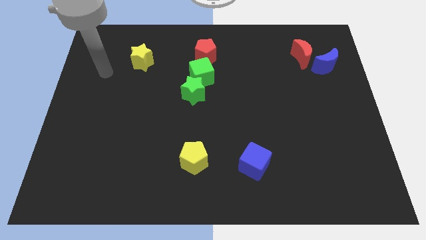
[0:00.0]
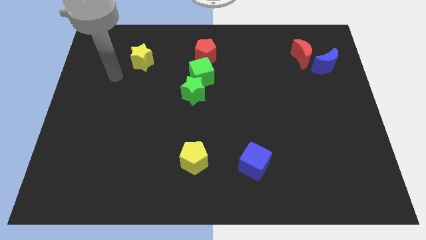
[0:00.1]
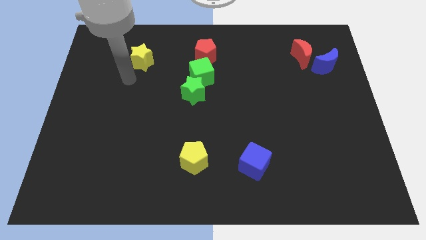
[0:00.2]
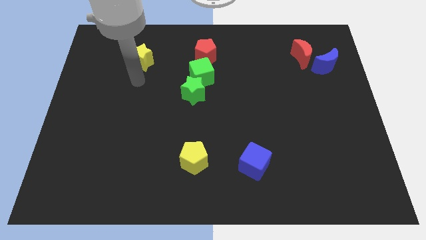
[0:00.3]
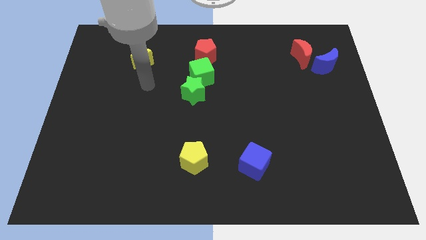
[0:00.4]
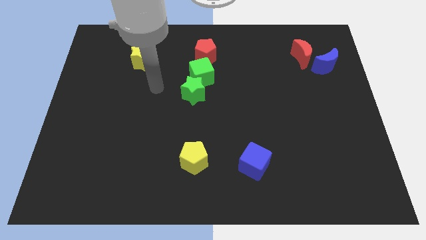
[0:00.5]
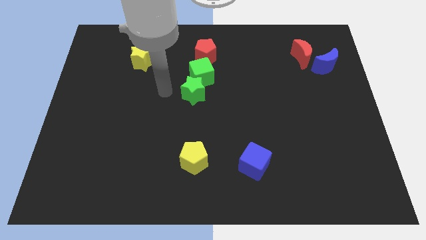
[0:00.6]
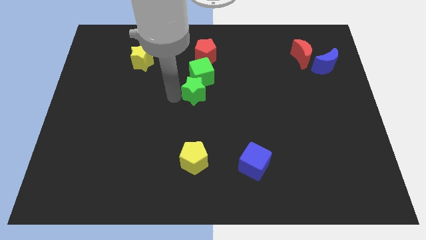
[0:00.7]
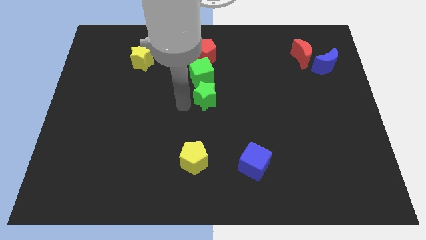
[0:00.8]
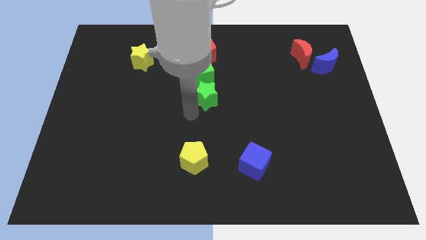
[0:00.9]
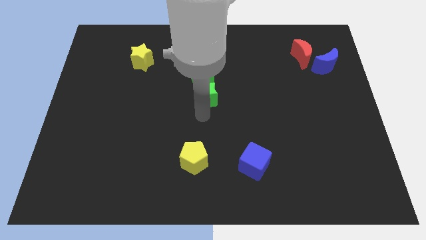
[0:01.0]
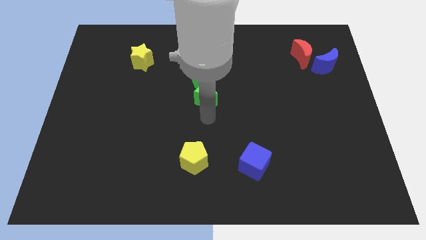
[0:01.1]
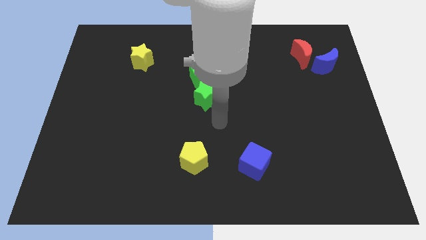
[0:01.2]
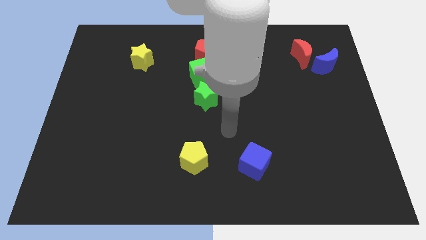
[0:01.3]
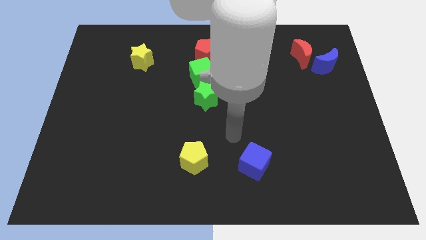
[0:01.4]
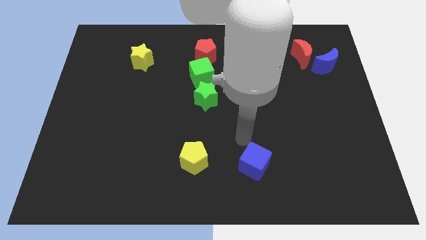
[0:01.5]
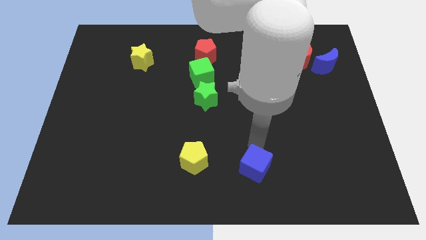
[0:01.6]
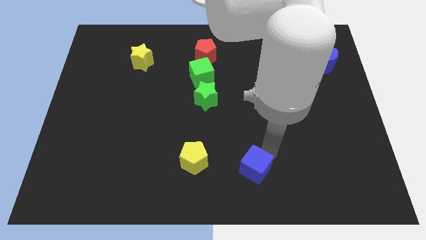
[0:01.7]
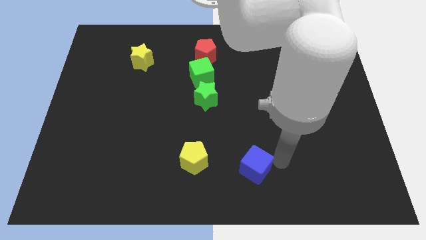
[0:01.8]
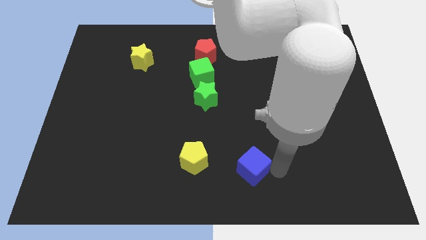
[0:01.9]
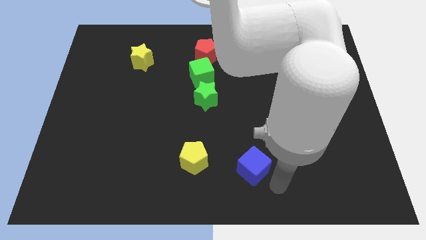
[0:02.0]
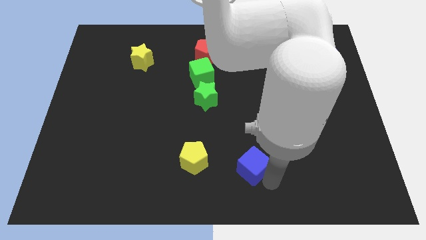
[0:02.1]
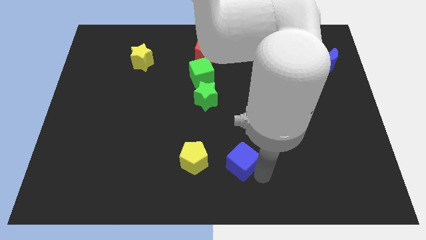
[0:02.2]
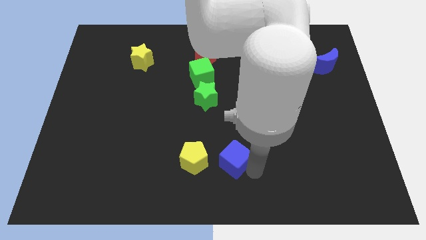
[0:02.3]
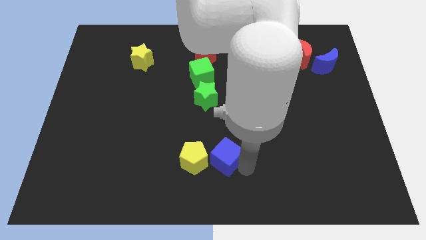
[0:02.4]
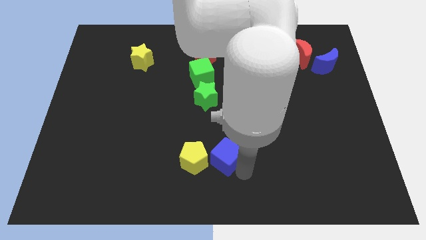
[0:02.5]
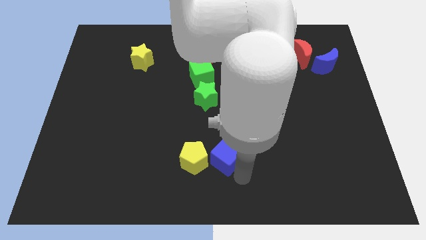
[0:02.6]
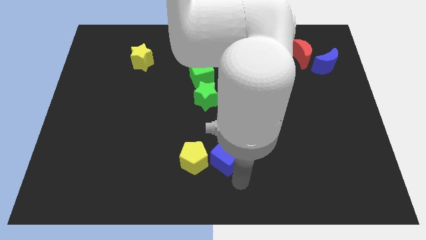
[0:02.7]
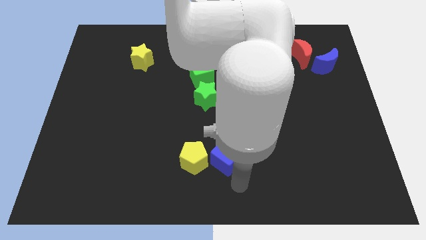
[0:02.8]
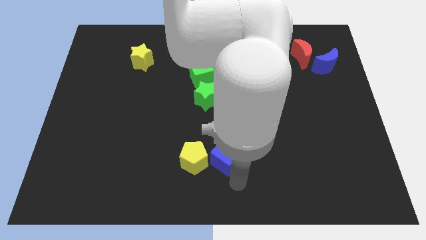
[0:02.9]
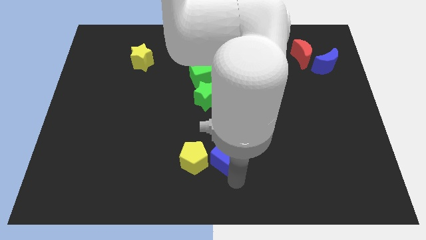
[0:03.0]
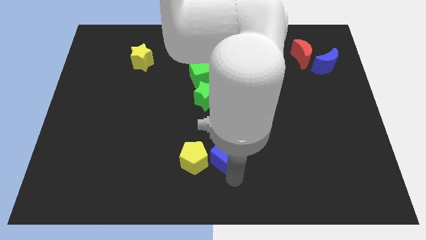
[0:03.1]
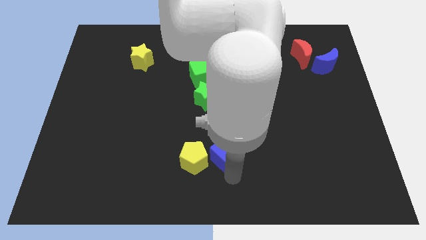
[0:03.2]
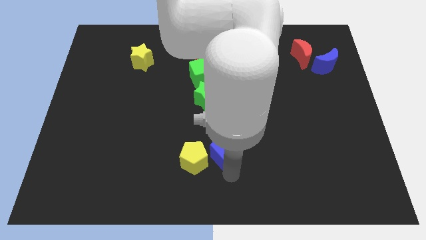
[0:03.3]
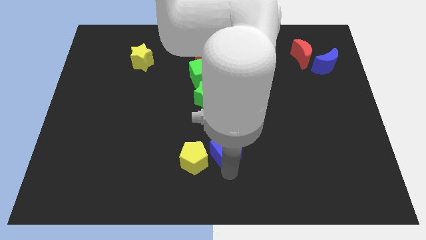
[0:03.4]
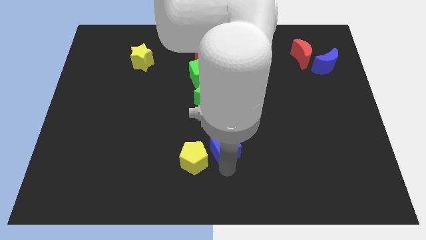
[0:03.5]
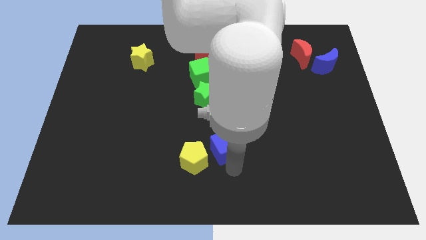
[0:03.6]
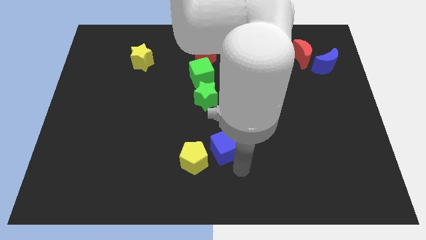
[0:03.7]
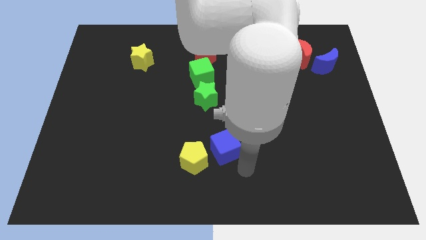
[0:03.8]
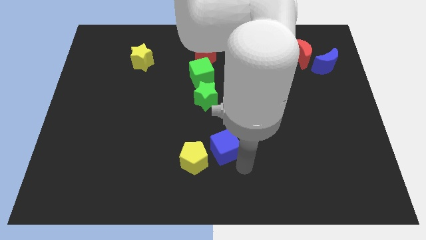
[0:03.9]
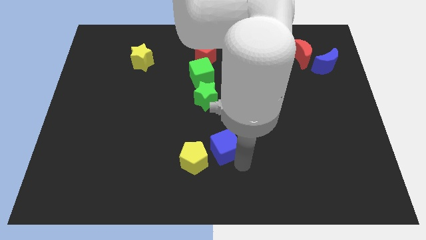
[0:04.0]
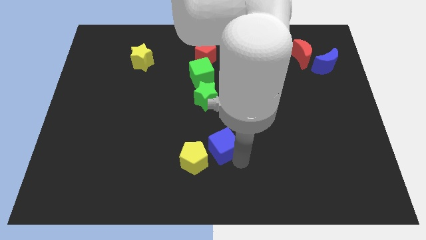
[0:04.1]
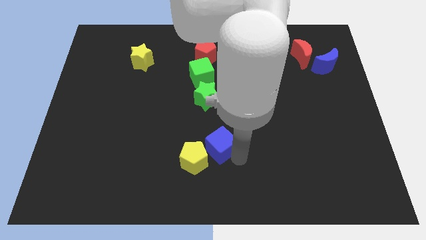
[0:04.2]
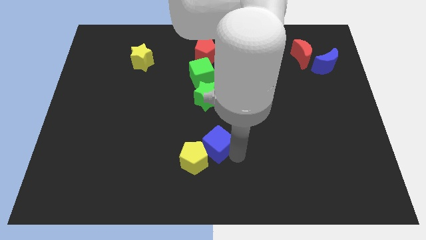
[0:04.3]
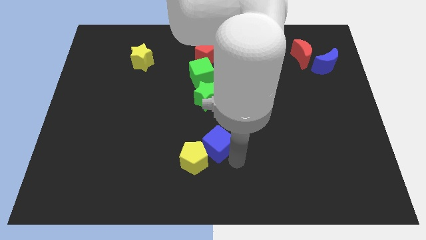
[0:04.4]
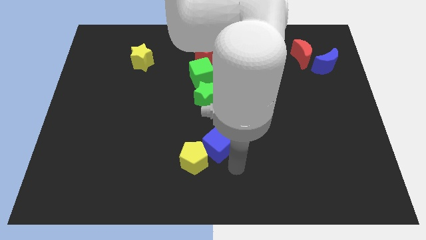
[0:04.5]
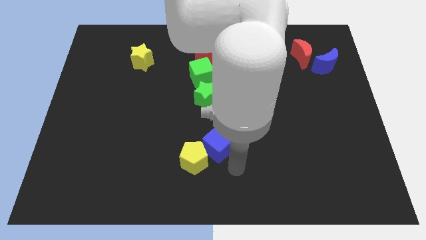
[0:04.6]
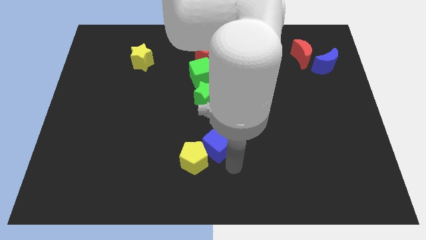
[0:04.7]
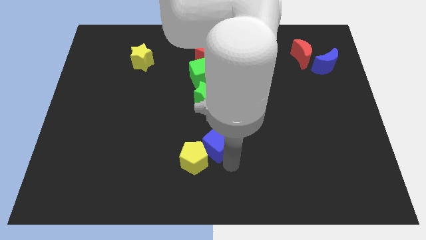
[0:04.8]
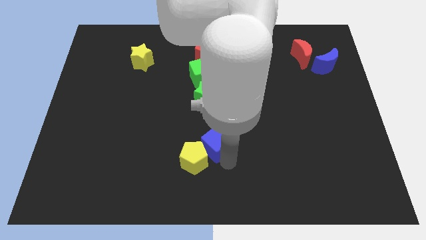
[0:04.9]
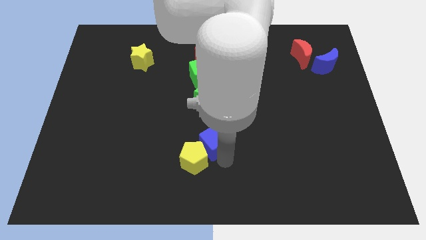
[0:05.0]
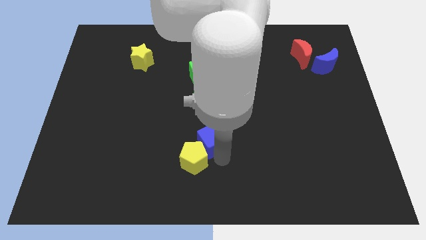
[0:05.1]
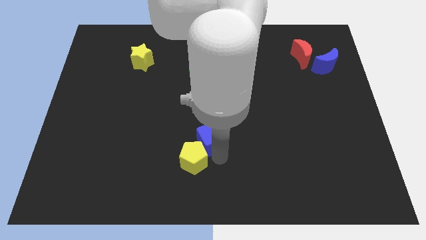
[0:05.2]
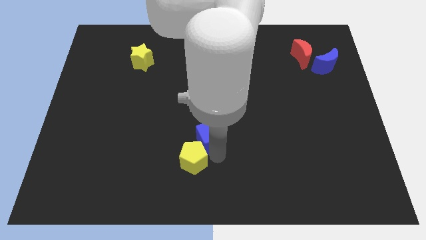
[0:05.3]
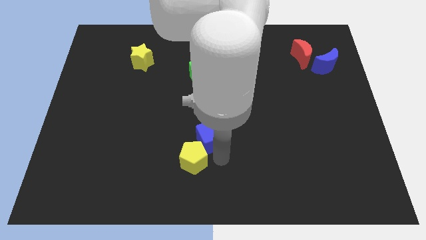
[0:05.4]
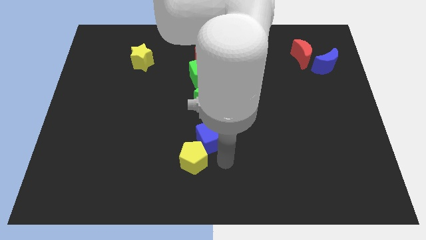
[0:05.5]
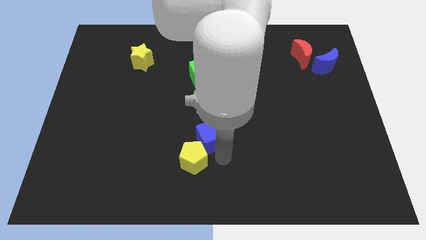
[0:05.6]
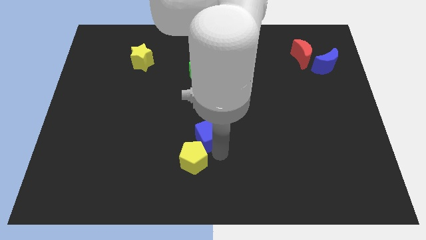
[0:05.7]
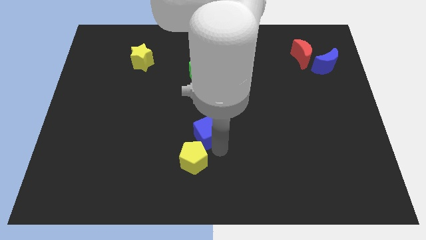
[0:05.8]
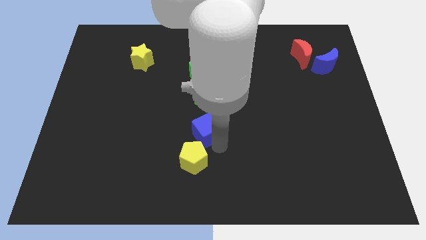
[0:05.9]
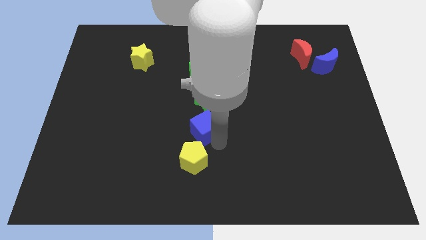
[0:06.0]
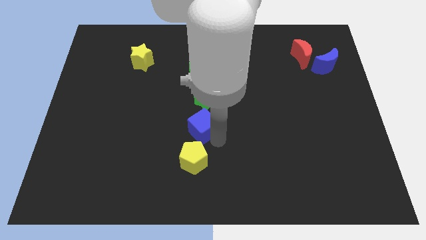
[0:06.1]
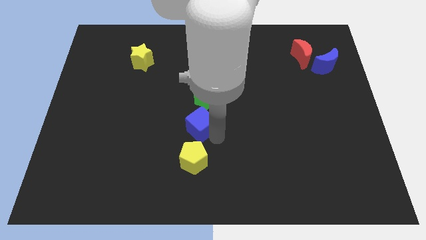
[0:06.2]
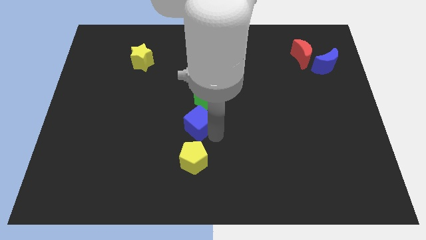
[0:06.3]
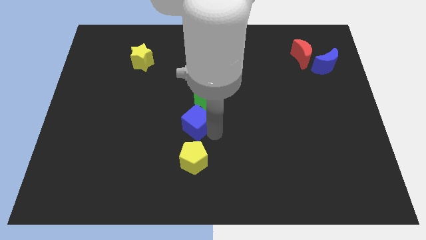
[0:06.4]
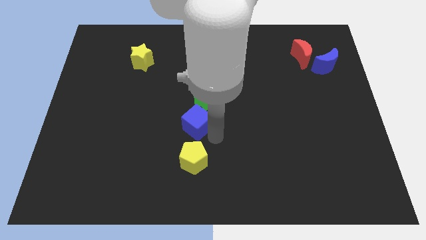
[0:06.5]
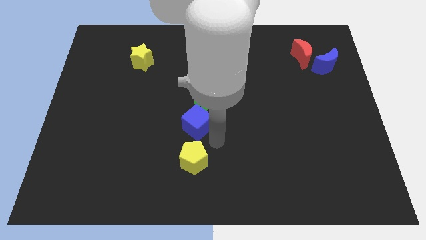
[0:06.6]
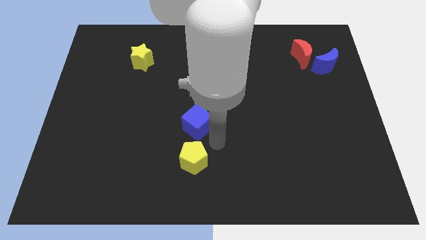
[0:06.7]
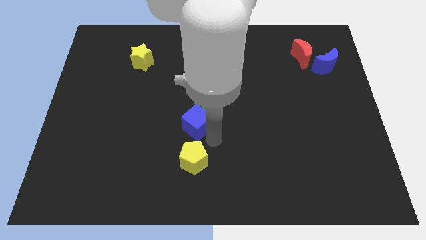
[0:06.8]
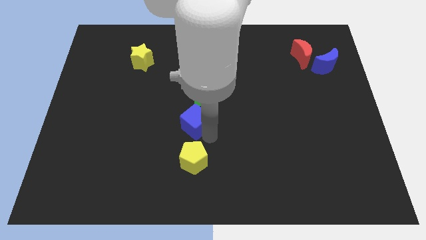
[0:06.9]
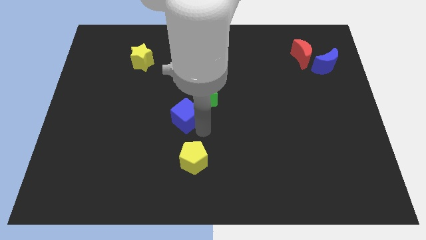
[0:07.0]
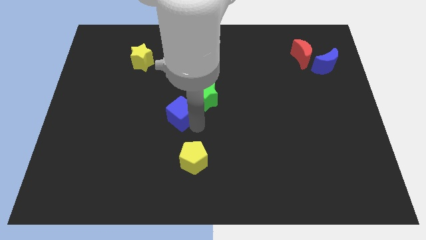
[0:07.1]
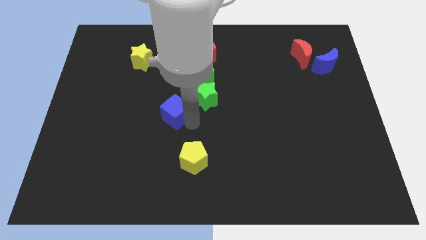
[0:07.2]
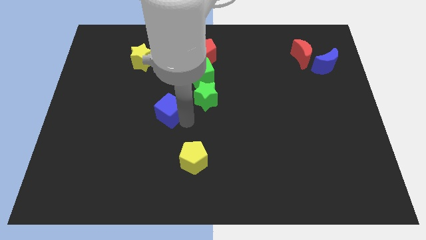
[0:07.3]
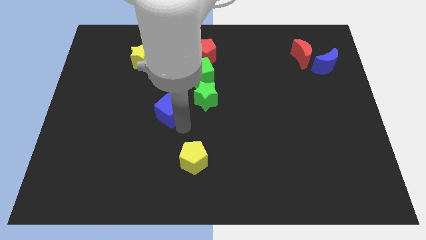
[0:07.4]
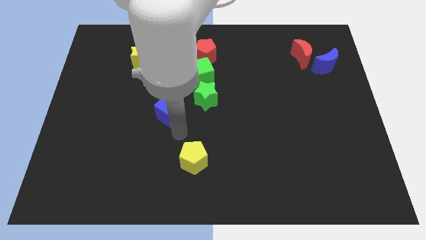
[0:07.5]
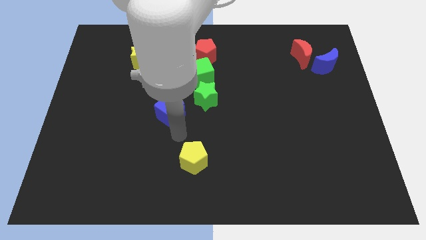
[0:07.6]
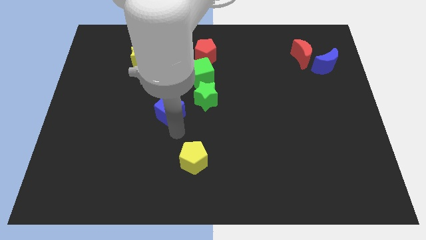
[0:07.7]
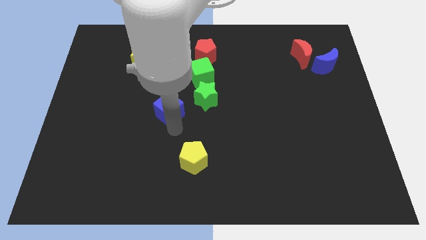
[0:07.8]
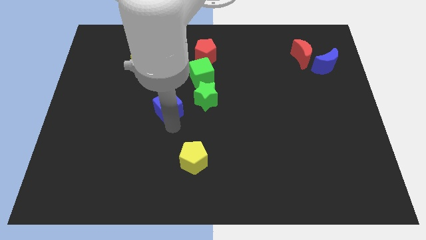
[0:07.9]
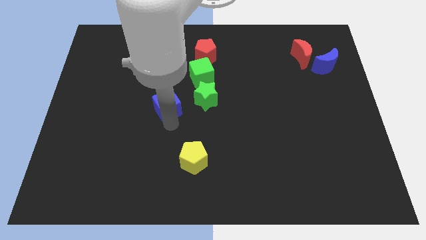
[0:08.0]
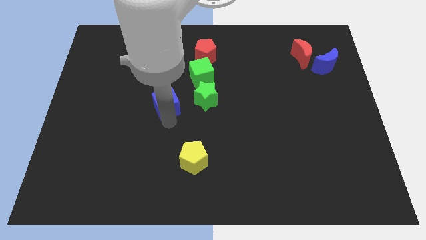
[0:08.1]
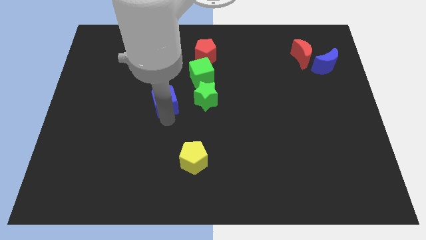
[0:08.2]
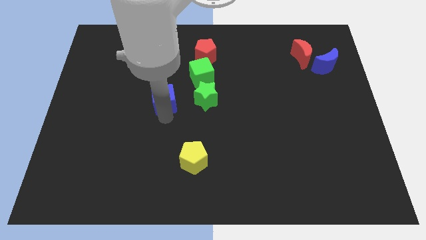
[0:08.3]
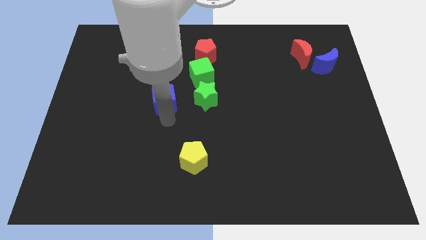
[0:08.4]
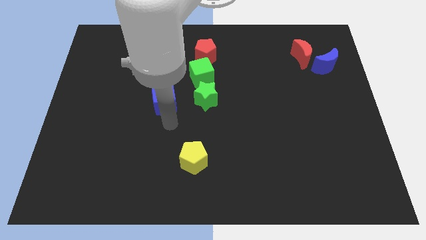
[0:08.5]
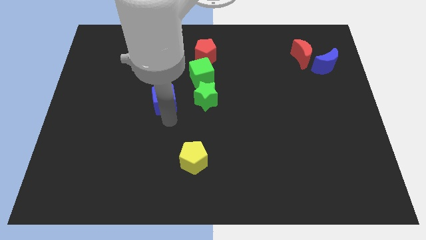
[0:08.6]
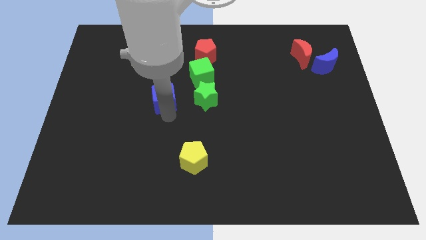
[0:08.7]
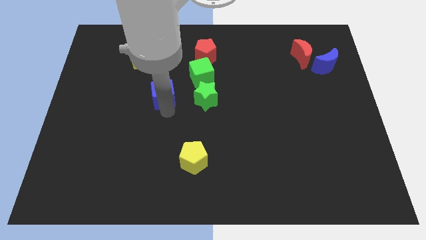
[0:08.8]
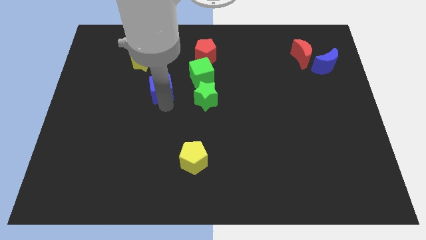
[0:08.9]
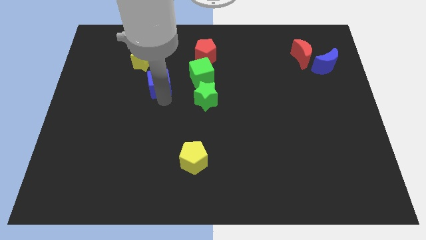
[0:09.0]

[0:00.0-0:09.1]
move the blue cube left of the green cube
